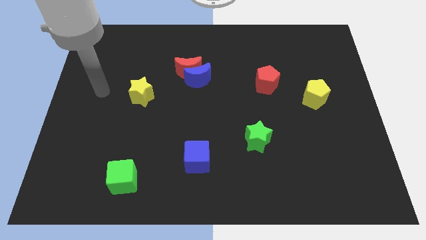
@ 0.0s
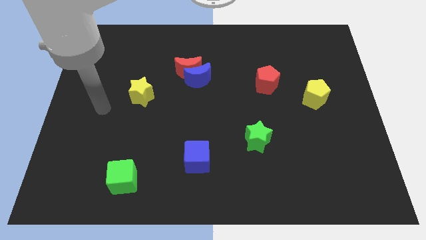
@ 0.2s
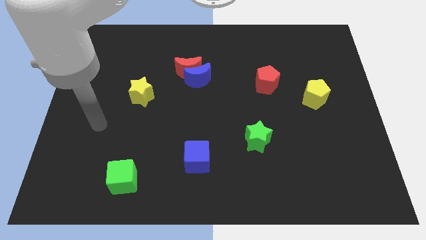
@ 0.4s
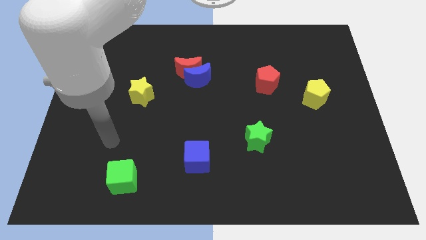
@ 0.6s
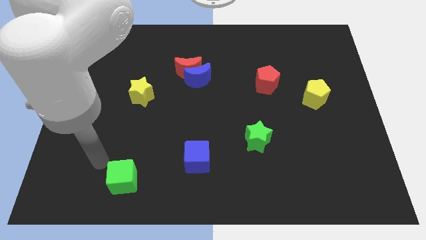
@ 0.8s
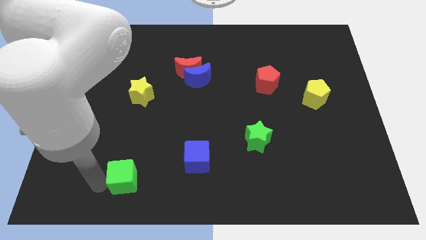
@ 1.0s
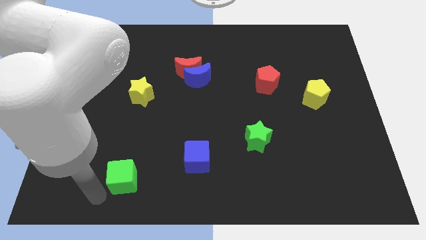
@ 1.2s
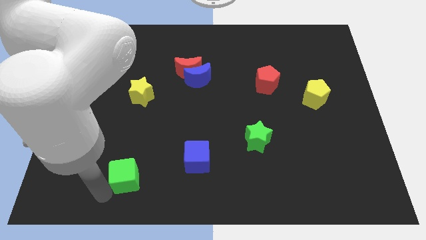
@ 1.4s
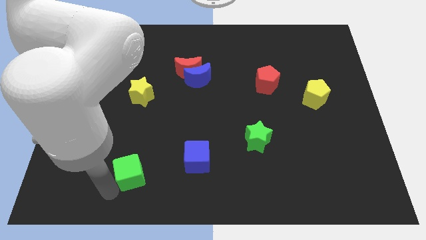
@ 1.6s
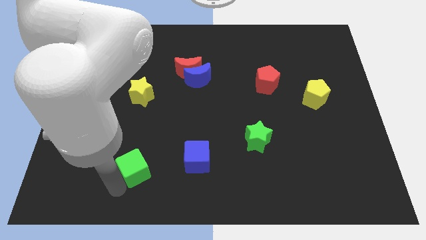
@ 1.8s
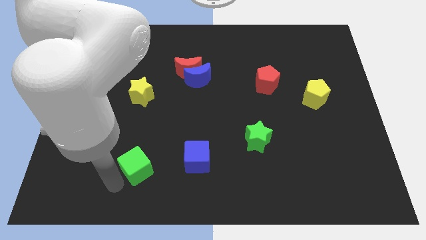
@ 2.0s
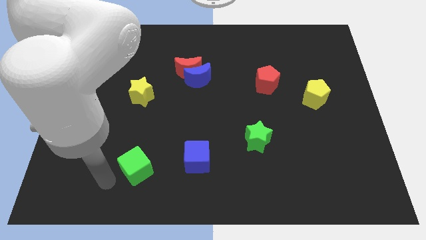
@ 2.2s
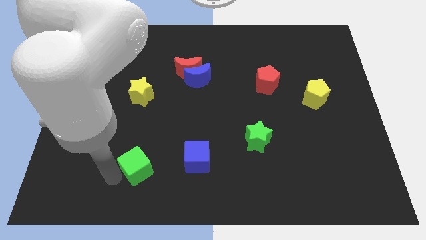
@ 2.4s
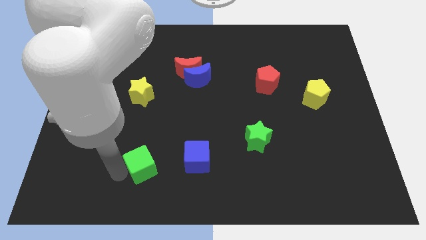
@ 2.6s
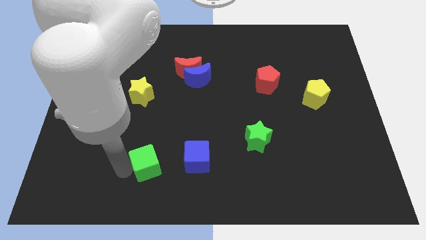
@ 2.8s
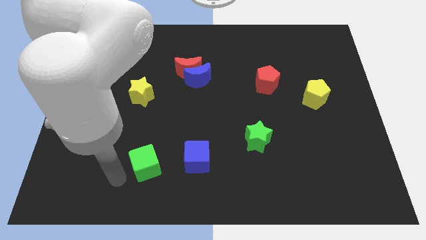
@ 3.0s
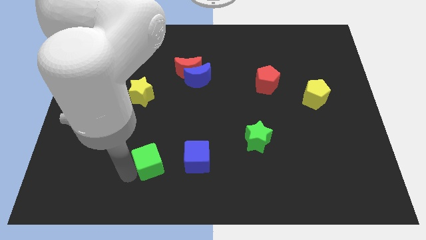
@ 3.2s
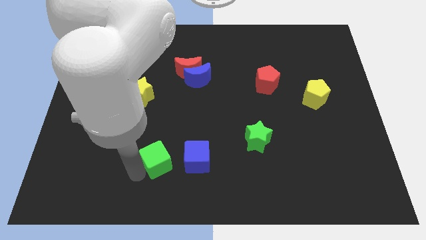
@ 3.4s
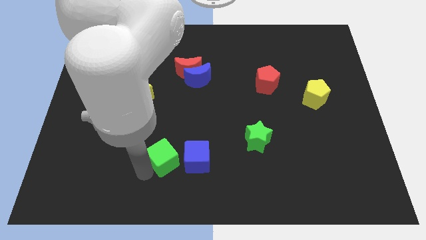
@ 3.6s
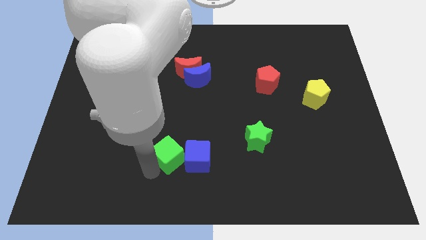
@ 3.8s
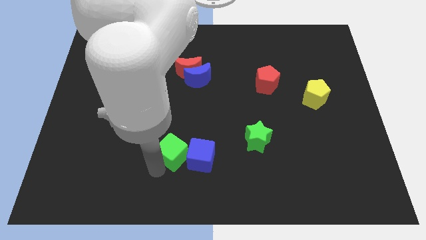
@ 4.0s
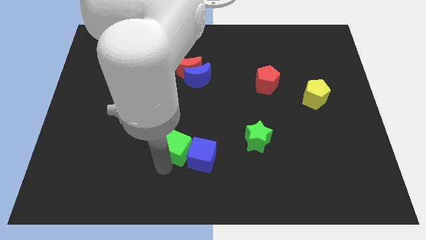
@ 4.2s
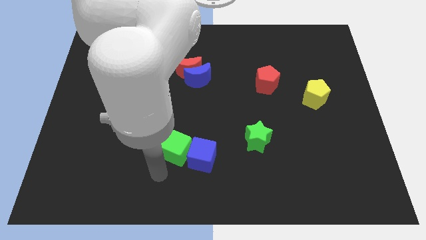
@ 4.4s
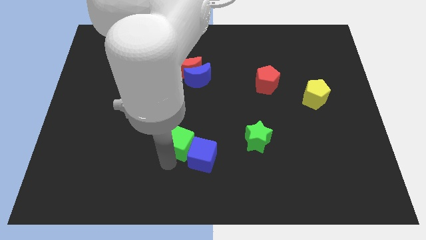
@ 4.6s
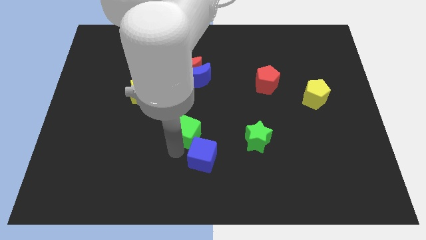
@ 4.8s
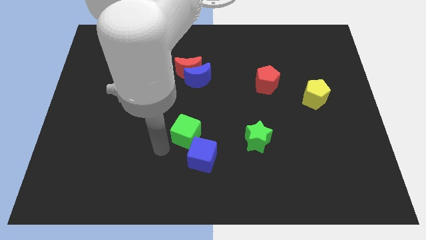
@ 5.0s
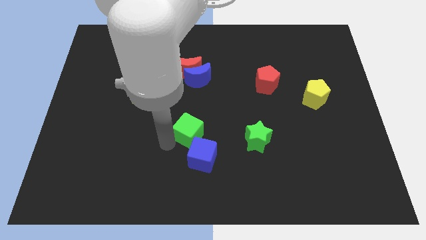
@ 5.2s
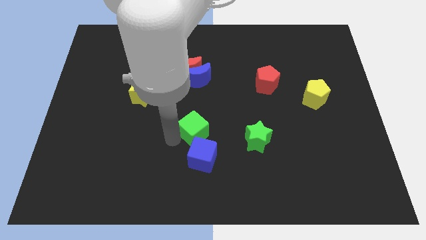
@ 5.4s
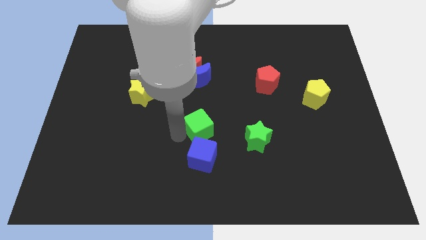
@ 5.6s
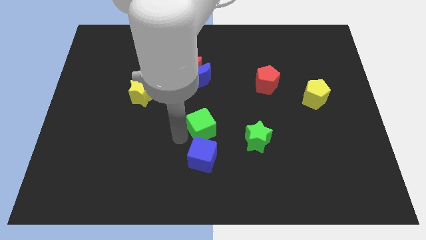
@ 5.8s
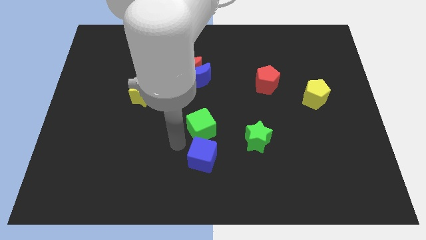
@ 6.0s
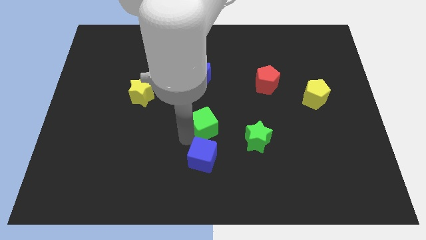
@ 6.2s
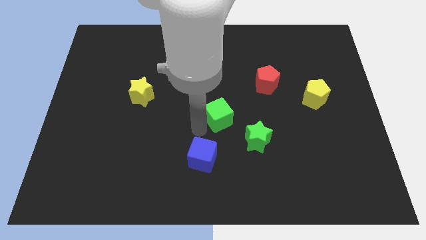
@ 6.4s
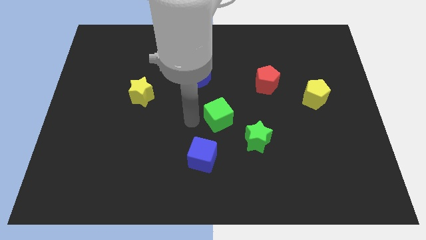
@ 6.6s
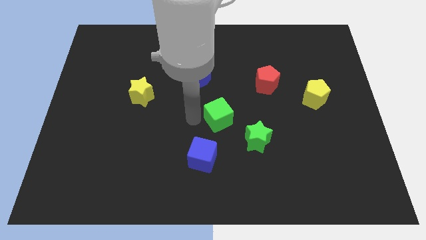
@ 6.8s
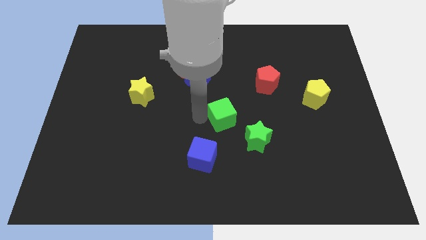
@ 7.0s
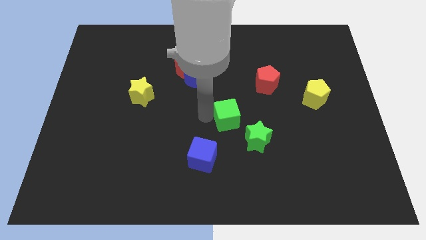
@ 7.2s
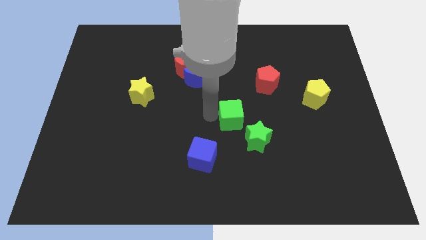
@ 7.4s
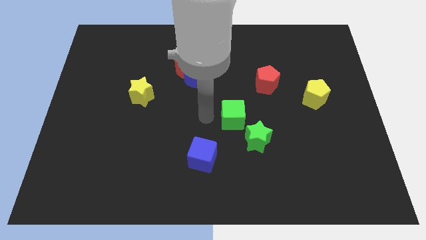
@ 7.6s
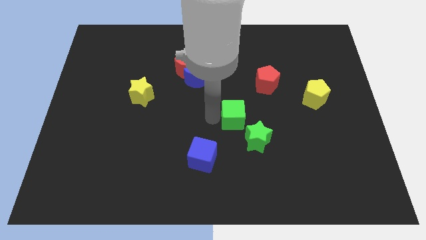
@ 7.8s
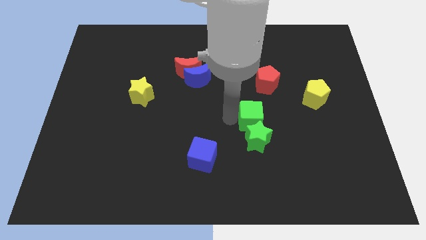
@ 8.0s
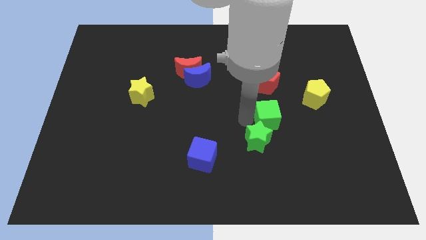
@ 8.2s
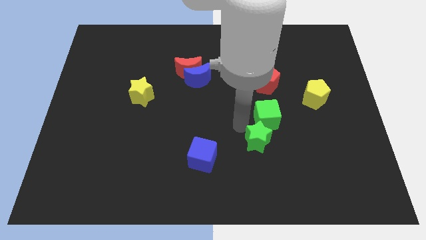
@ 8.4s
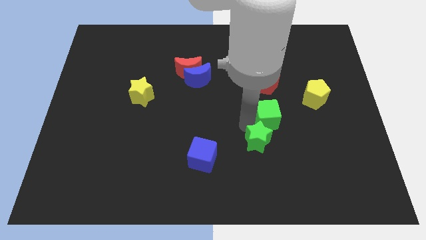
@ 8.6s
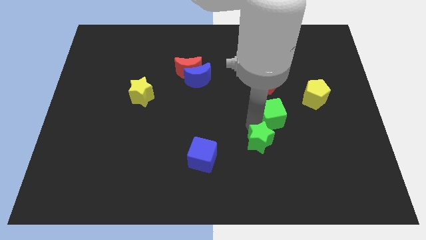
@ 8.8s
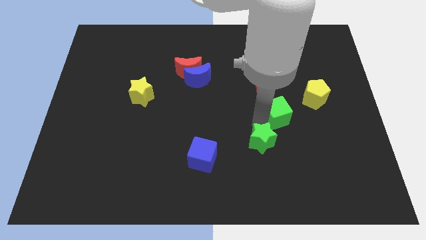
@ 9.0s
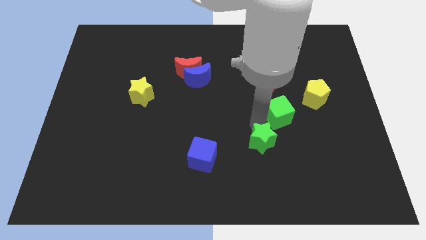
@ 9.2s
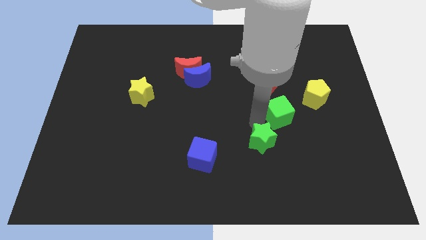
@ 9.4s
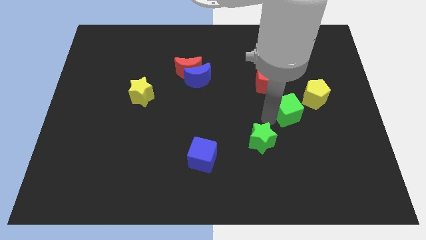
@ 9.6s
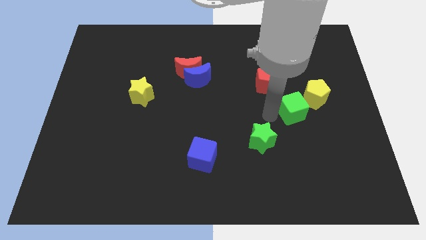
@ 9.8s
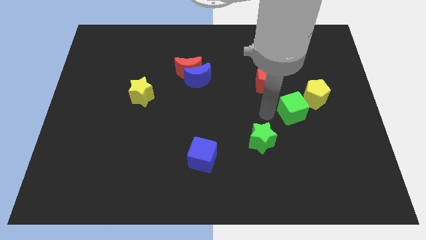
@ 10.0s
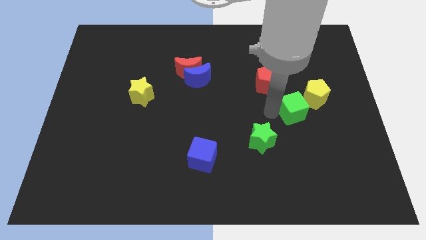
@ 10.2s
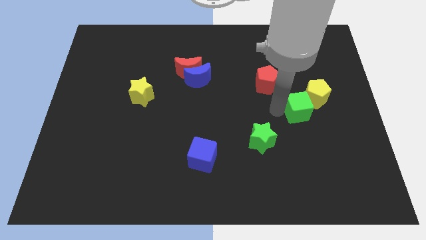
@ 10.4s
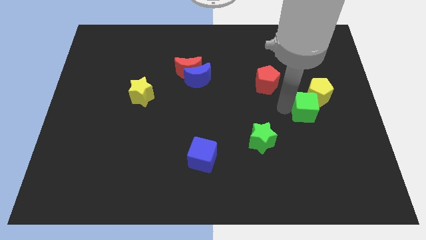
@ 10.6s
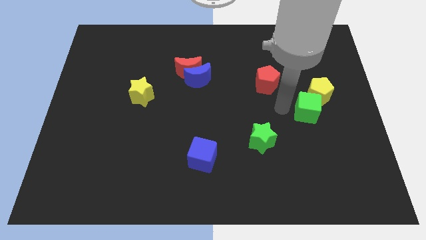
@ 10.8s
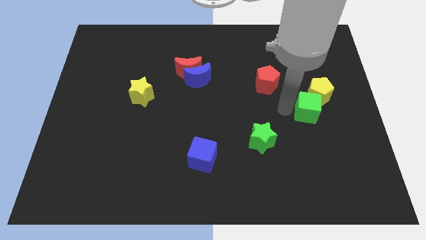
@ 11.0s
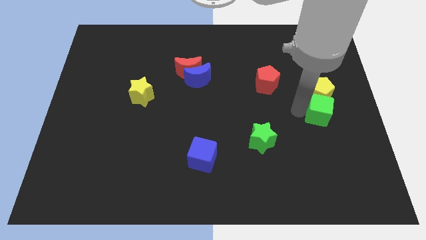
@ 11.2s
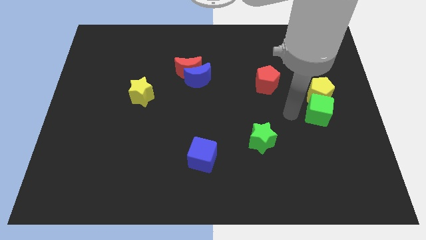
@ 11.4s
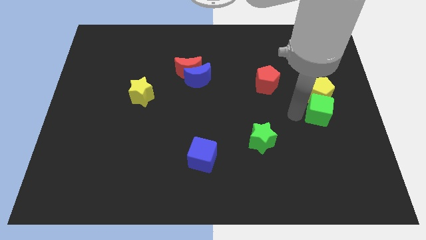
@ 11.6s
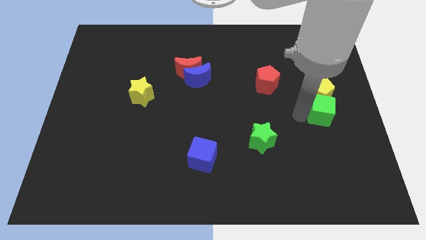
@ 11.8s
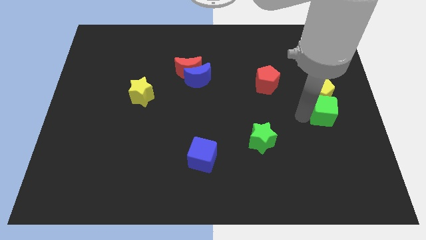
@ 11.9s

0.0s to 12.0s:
put the green cube to the right side of the board
